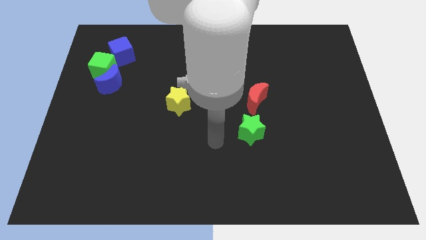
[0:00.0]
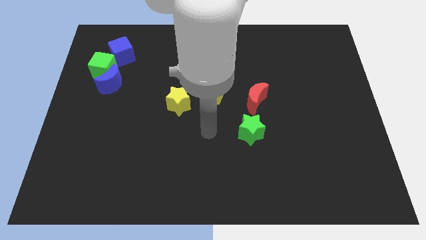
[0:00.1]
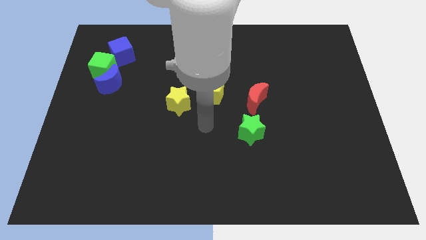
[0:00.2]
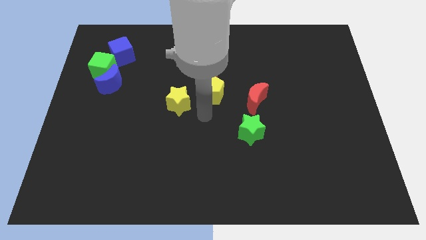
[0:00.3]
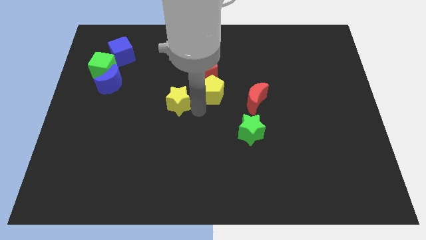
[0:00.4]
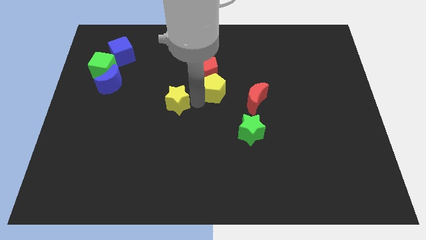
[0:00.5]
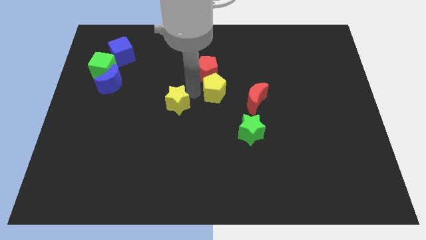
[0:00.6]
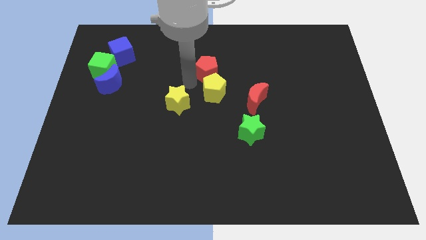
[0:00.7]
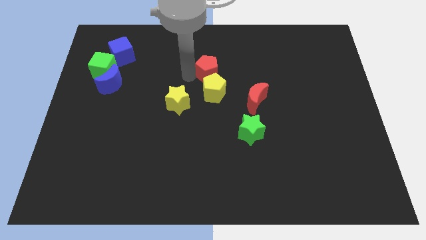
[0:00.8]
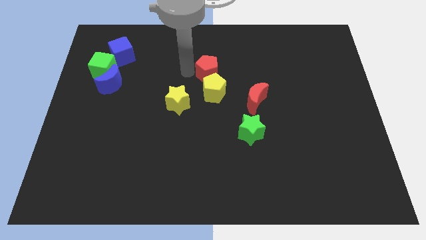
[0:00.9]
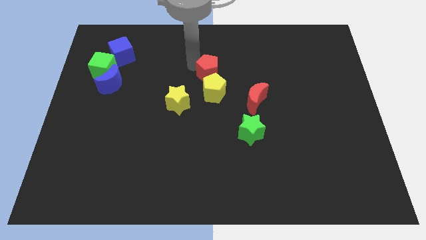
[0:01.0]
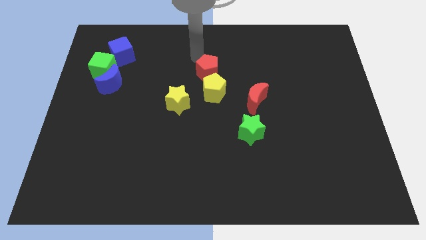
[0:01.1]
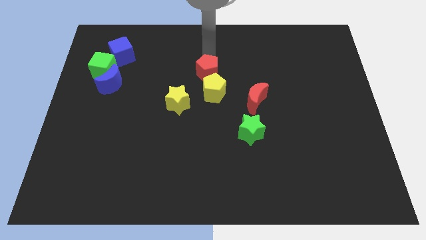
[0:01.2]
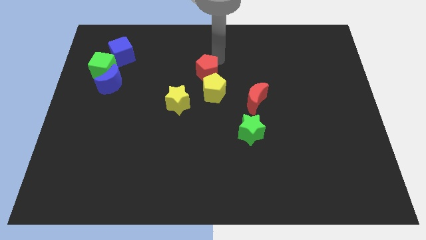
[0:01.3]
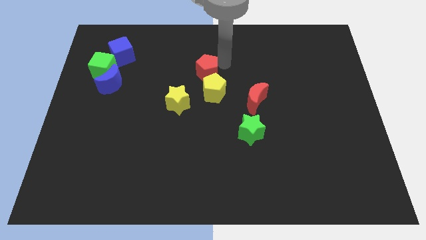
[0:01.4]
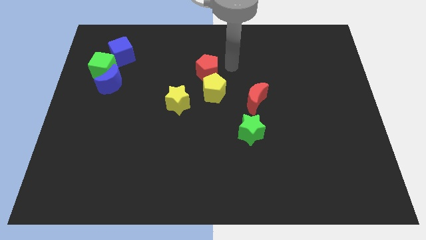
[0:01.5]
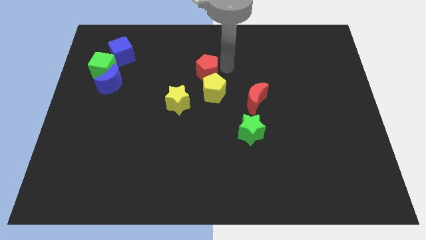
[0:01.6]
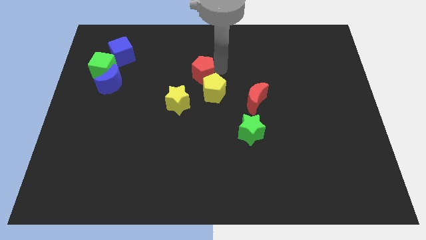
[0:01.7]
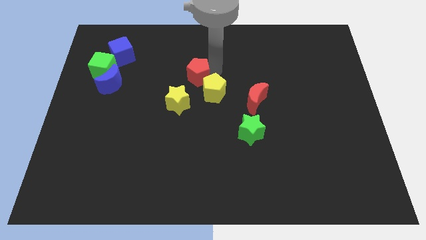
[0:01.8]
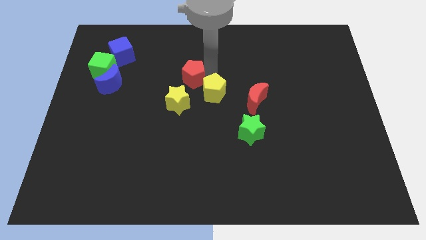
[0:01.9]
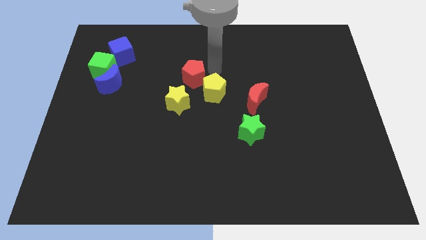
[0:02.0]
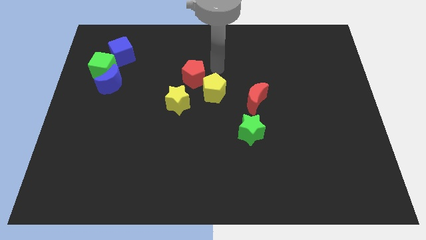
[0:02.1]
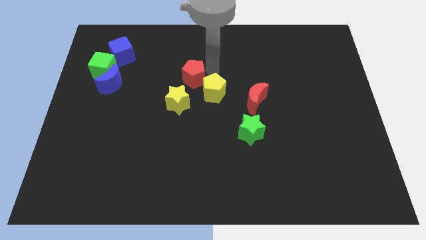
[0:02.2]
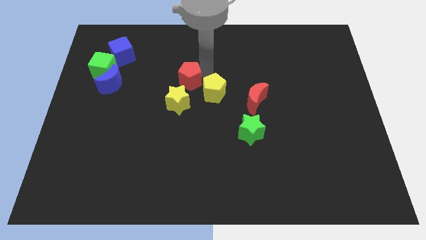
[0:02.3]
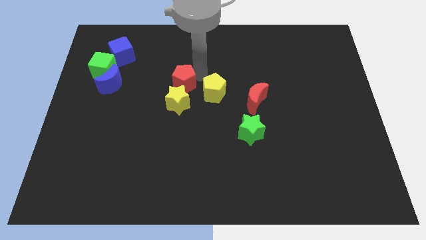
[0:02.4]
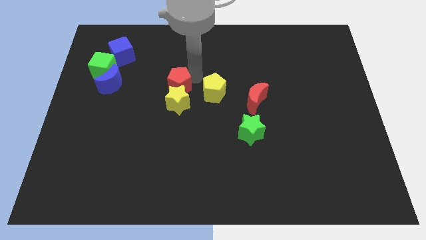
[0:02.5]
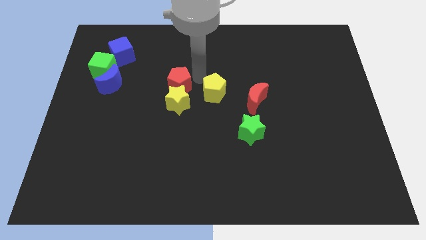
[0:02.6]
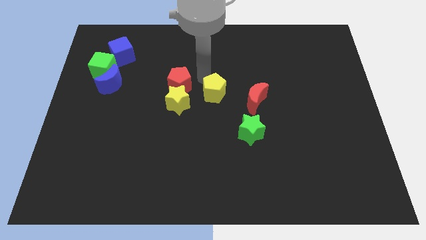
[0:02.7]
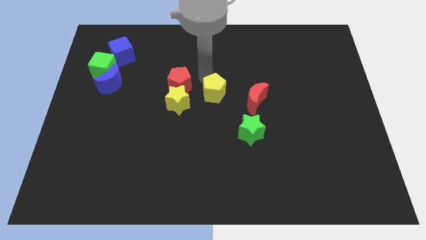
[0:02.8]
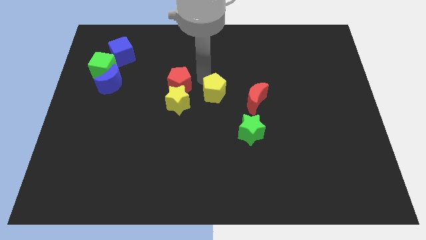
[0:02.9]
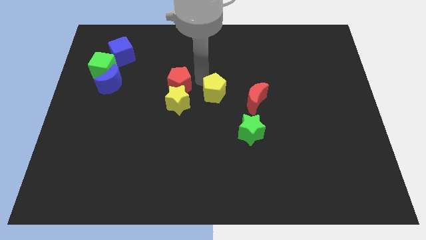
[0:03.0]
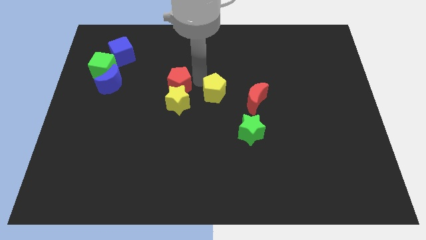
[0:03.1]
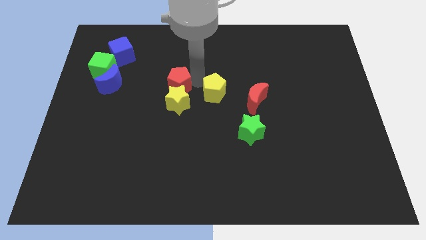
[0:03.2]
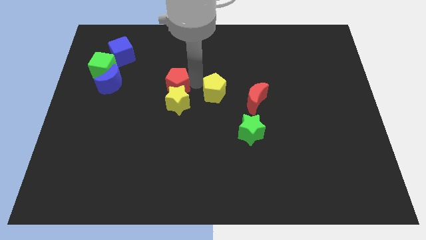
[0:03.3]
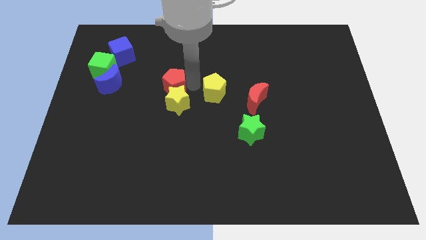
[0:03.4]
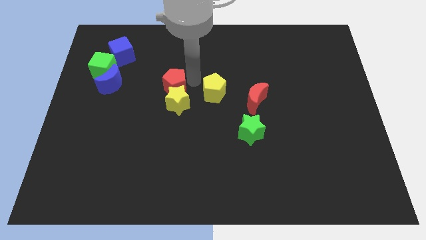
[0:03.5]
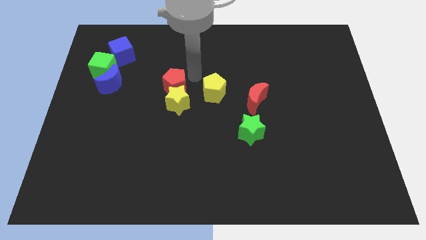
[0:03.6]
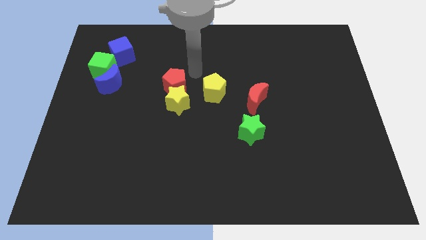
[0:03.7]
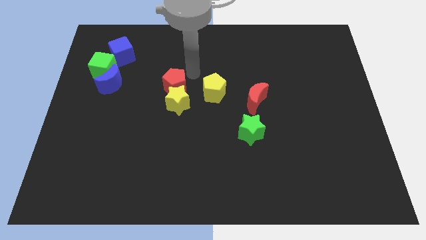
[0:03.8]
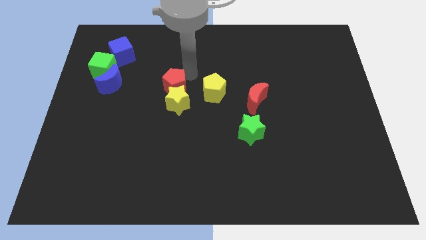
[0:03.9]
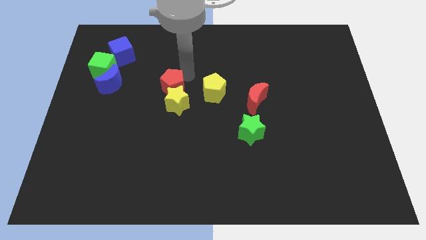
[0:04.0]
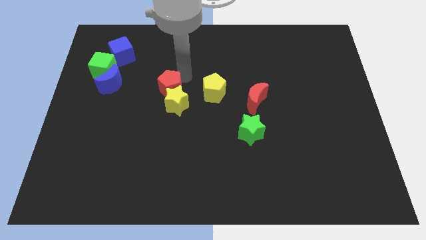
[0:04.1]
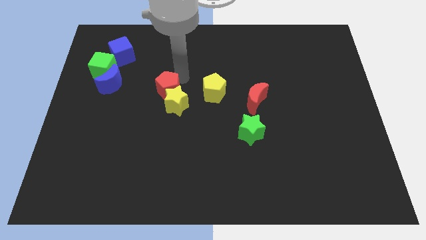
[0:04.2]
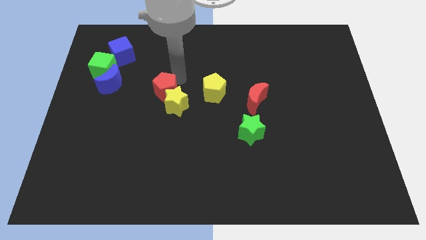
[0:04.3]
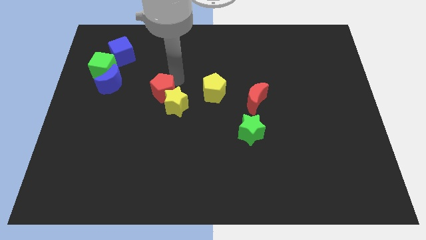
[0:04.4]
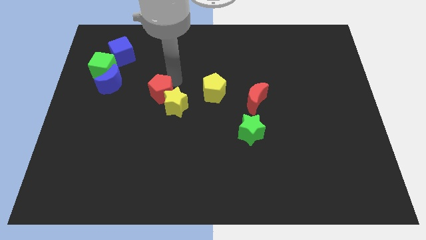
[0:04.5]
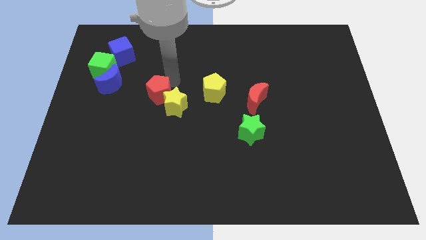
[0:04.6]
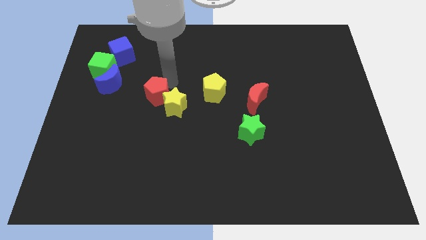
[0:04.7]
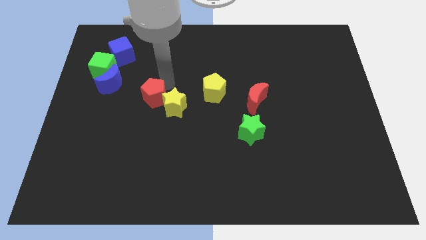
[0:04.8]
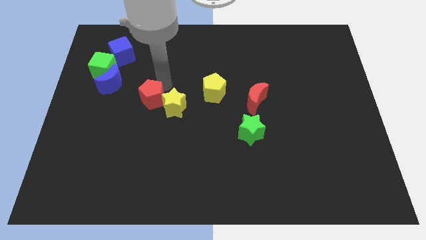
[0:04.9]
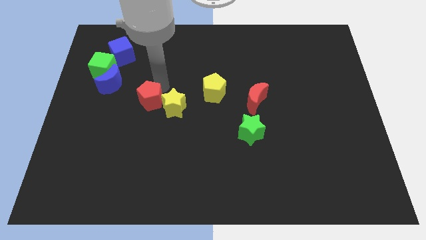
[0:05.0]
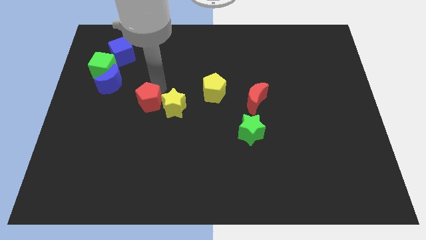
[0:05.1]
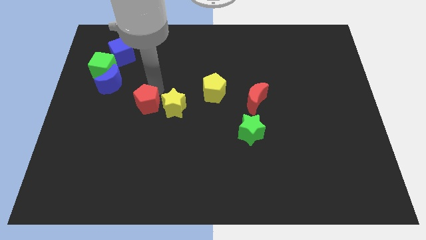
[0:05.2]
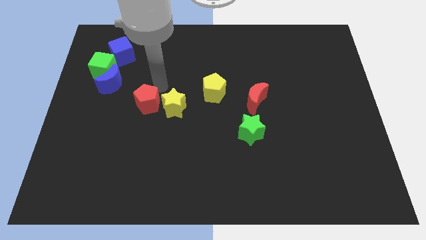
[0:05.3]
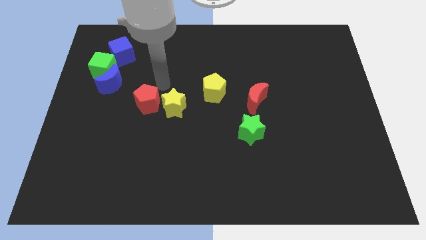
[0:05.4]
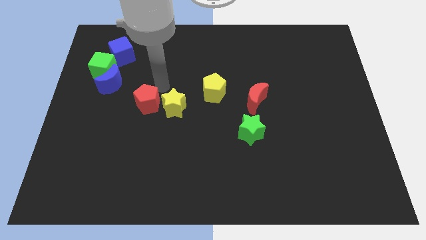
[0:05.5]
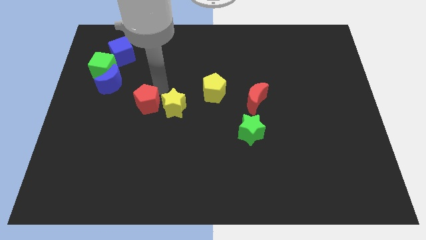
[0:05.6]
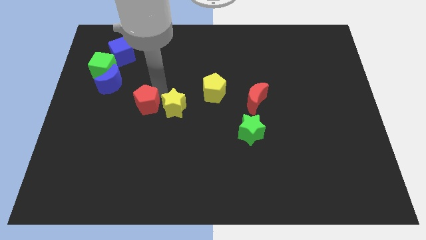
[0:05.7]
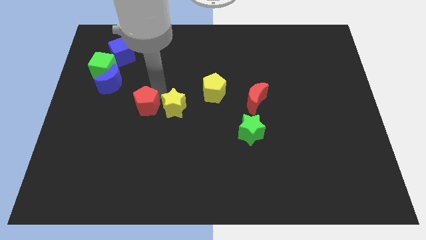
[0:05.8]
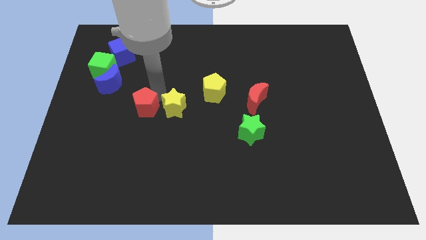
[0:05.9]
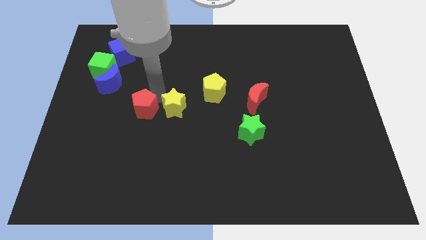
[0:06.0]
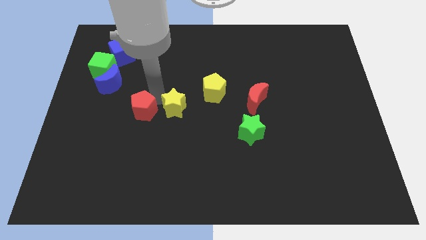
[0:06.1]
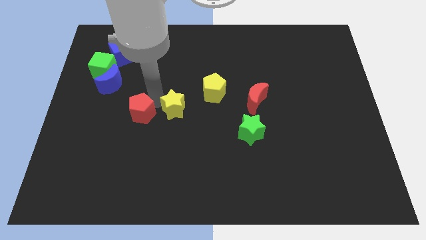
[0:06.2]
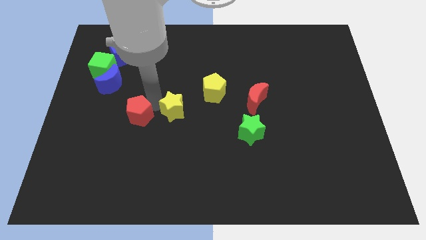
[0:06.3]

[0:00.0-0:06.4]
slide the red pentagon diagonally down and left

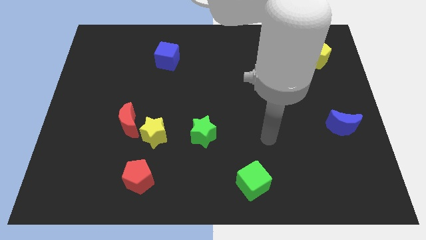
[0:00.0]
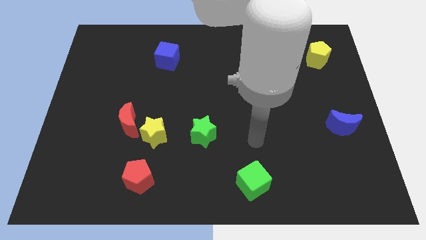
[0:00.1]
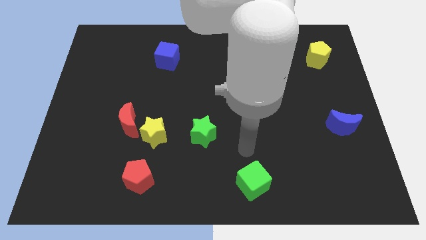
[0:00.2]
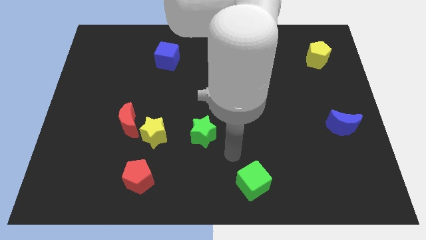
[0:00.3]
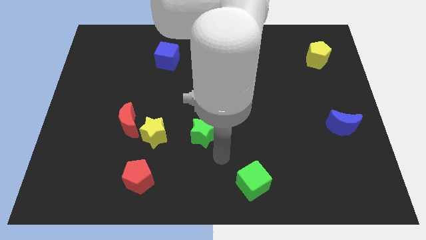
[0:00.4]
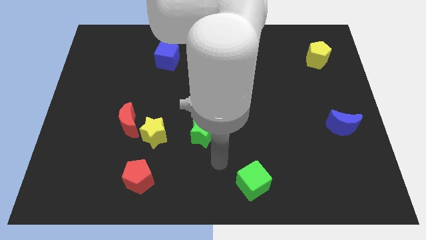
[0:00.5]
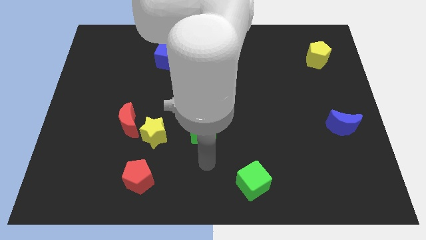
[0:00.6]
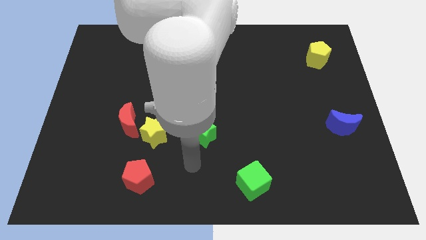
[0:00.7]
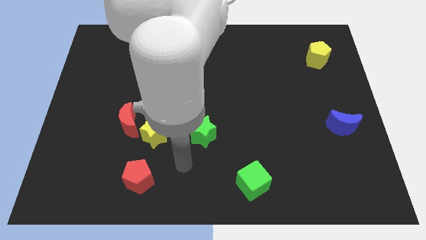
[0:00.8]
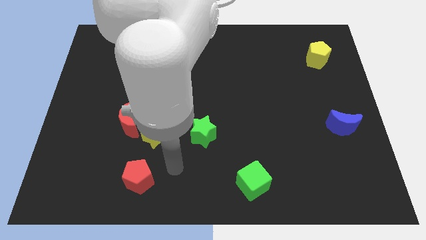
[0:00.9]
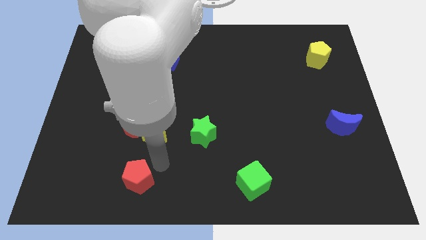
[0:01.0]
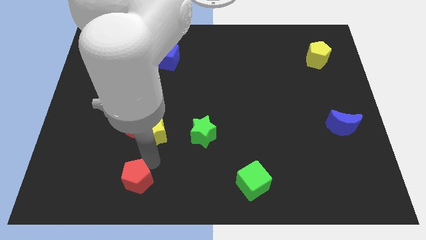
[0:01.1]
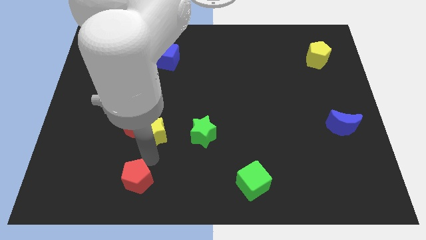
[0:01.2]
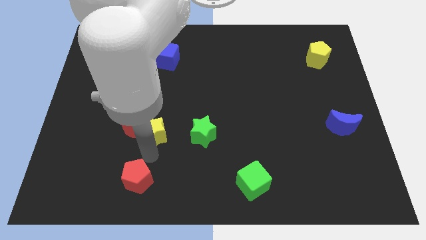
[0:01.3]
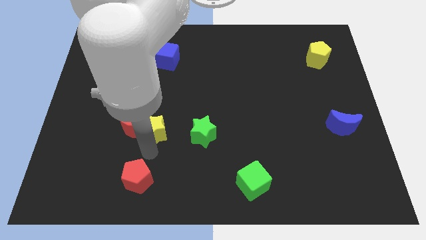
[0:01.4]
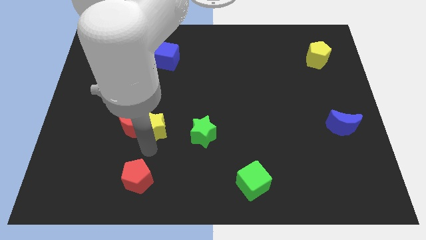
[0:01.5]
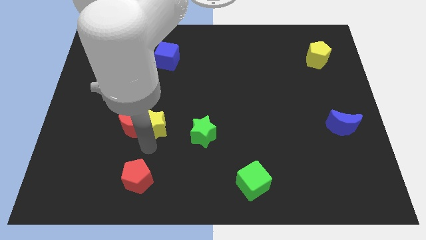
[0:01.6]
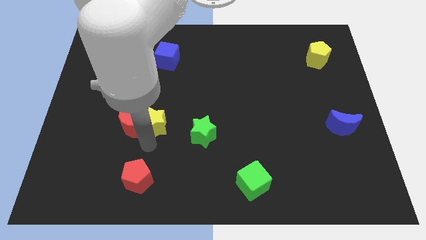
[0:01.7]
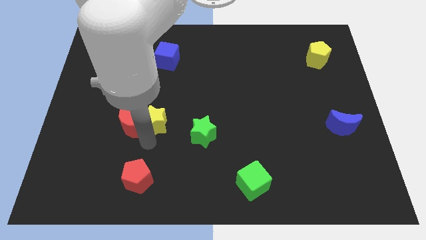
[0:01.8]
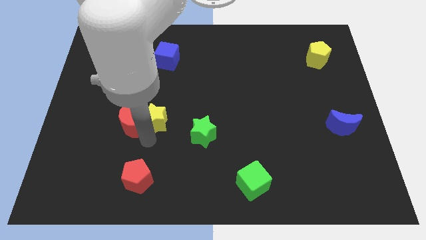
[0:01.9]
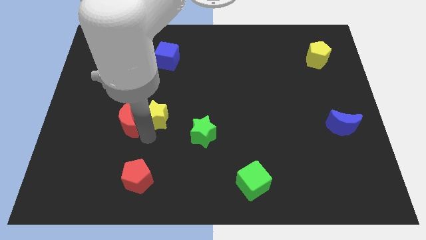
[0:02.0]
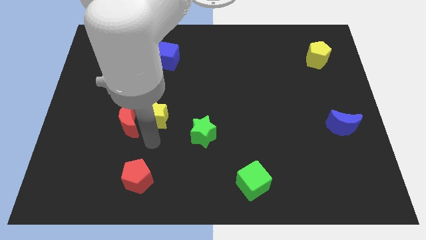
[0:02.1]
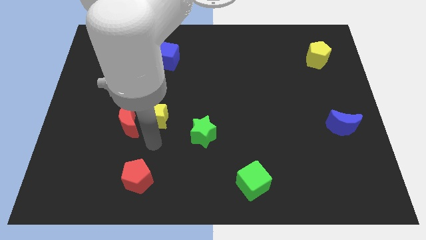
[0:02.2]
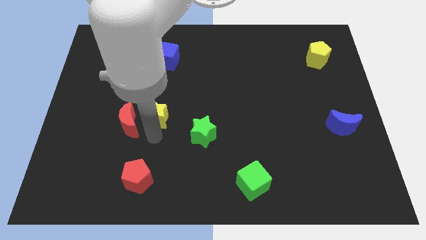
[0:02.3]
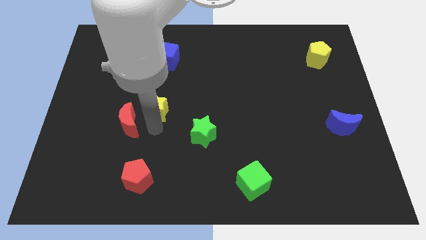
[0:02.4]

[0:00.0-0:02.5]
move the yellow star a bit up
